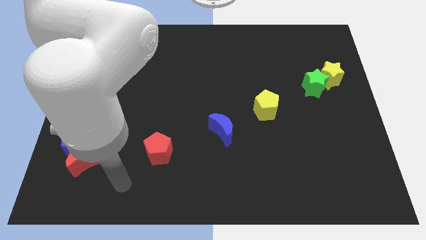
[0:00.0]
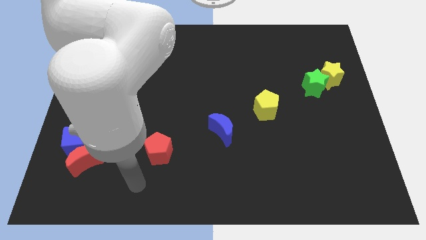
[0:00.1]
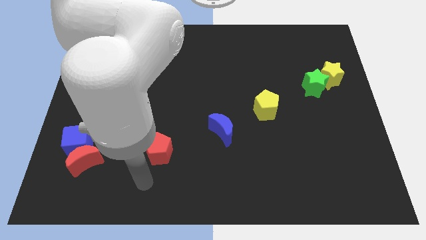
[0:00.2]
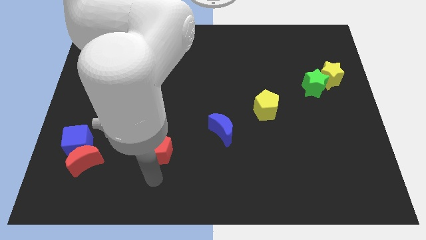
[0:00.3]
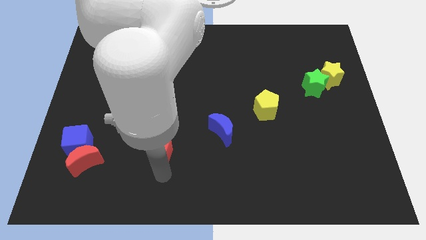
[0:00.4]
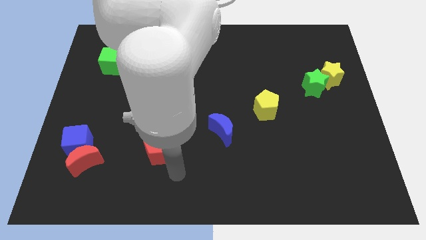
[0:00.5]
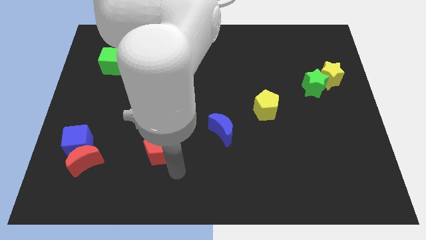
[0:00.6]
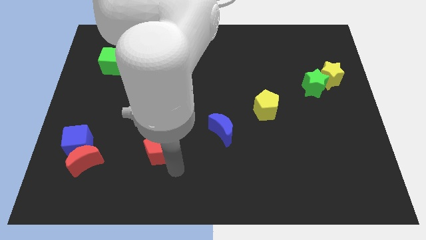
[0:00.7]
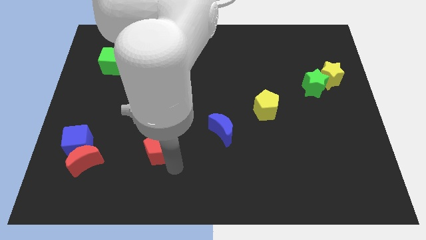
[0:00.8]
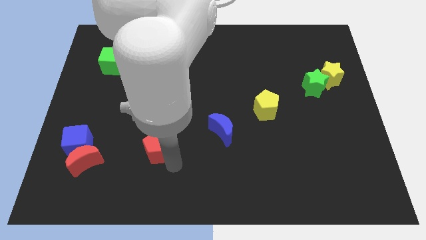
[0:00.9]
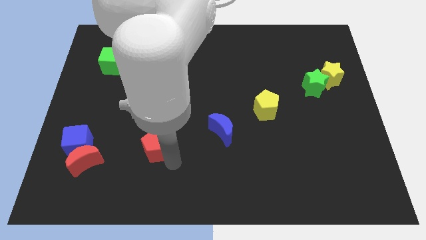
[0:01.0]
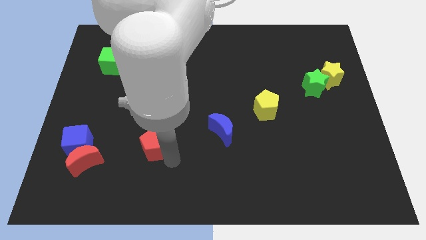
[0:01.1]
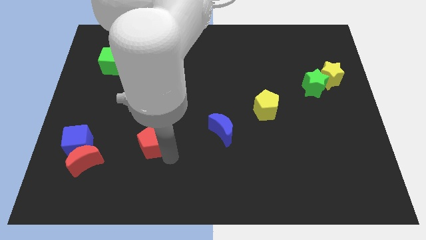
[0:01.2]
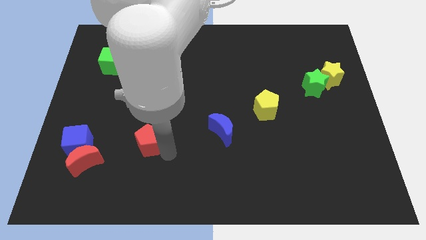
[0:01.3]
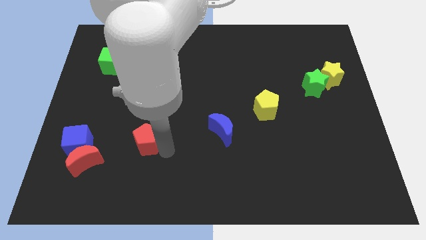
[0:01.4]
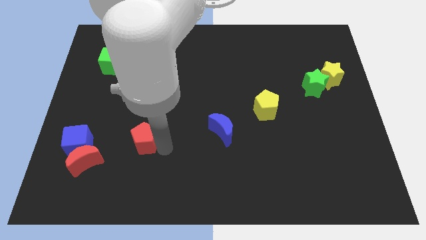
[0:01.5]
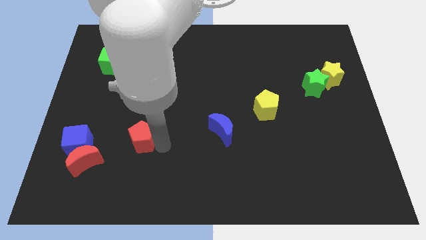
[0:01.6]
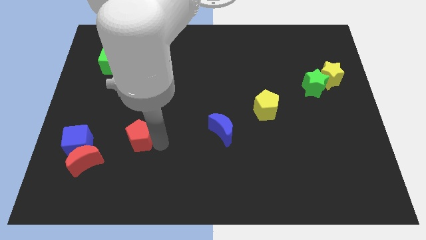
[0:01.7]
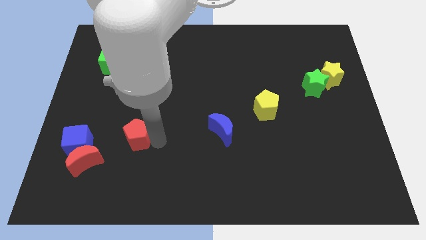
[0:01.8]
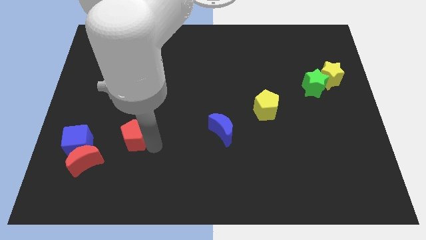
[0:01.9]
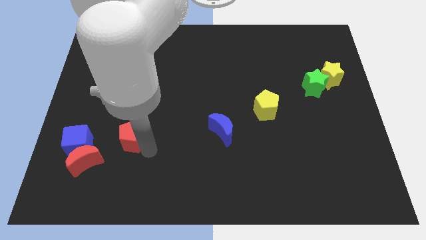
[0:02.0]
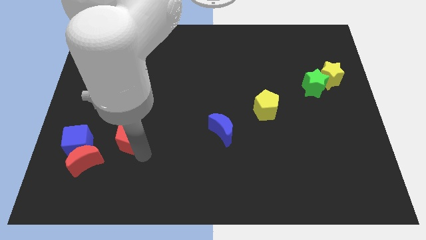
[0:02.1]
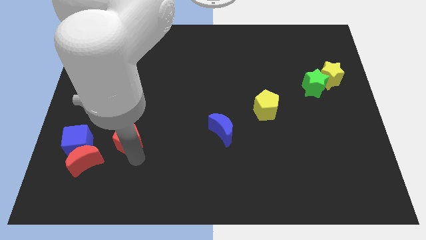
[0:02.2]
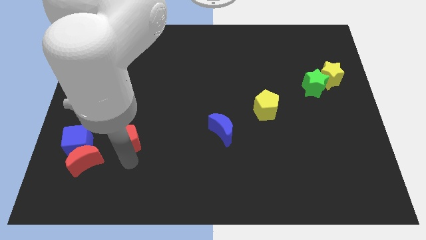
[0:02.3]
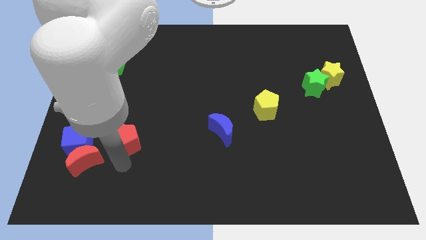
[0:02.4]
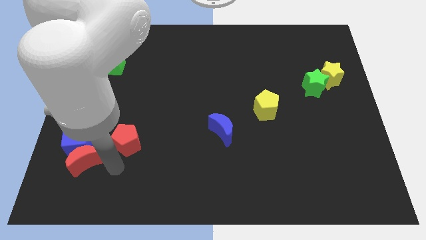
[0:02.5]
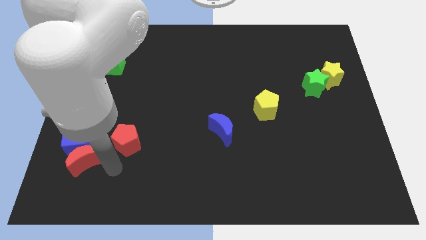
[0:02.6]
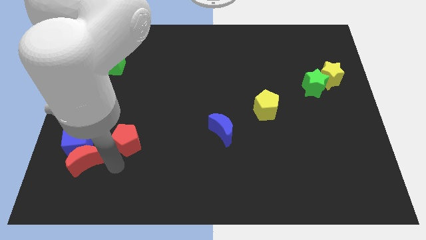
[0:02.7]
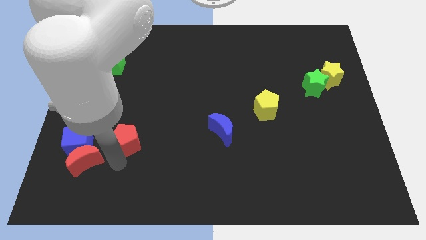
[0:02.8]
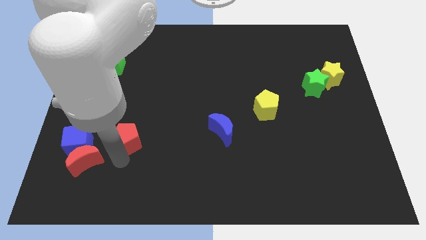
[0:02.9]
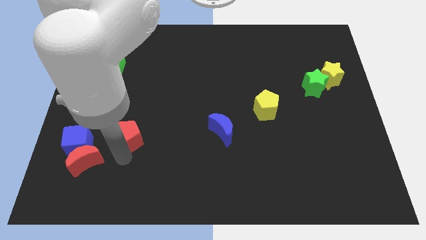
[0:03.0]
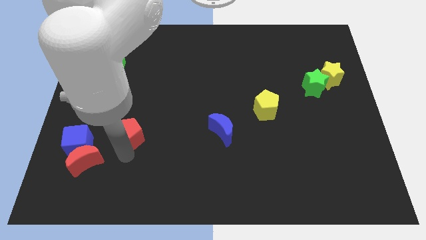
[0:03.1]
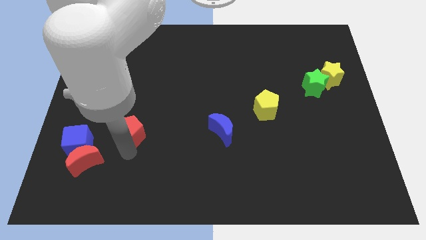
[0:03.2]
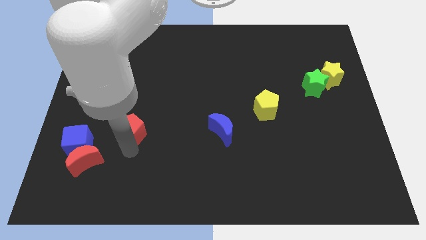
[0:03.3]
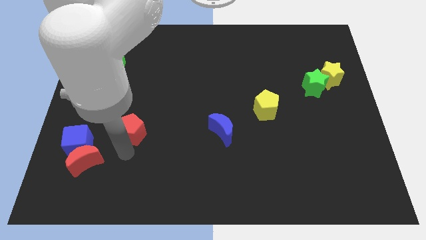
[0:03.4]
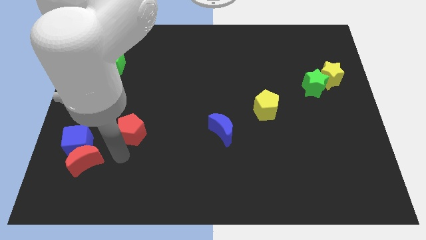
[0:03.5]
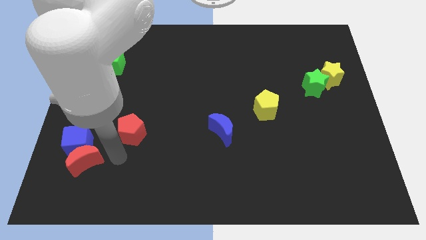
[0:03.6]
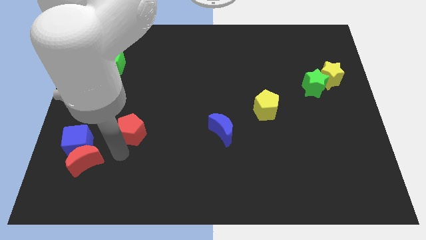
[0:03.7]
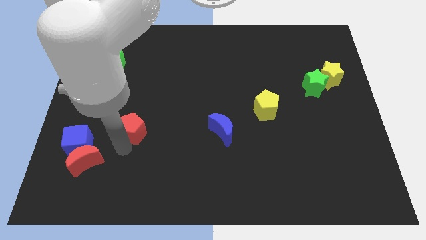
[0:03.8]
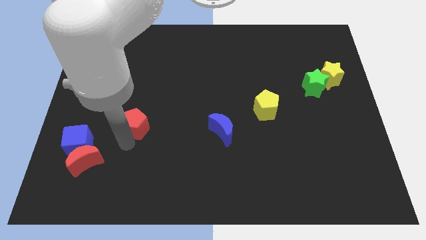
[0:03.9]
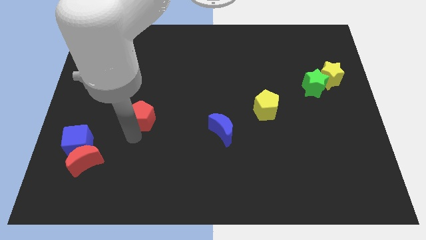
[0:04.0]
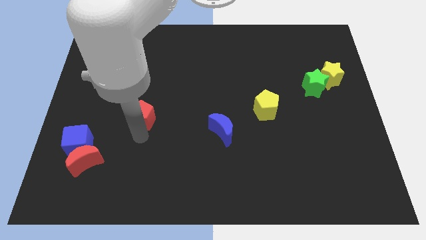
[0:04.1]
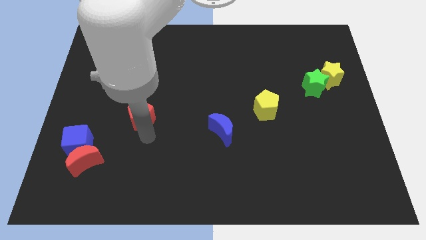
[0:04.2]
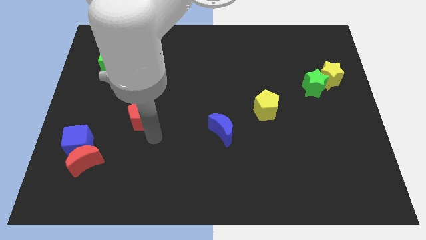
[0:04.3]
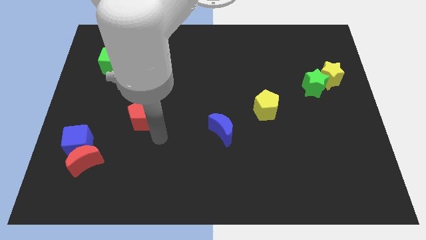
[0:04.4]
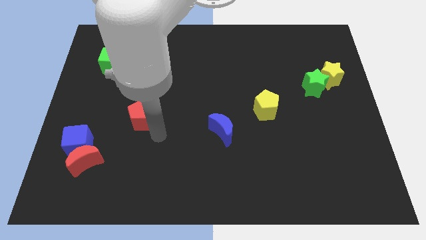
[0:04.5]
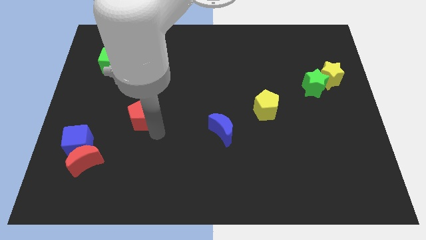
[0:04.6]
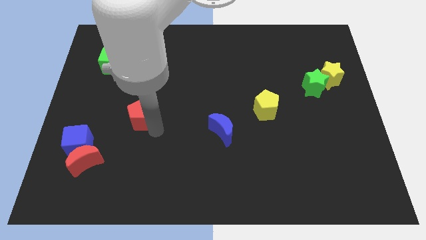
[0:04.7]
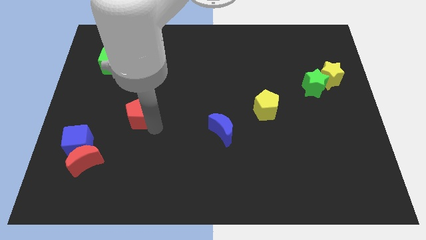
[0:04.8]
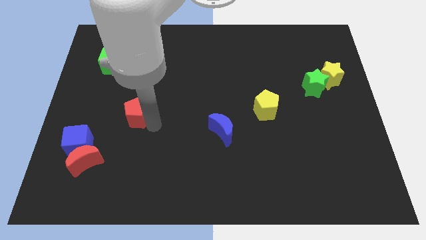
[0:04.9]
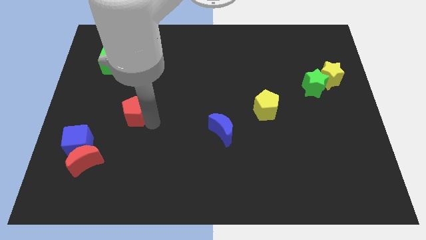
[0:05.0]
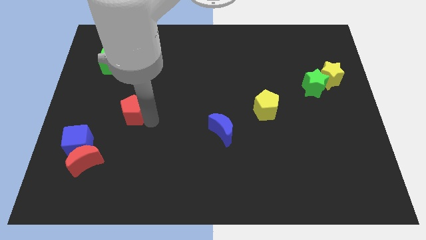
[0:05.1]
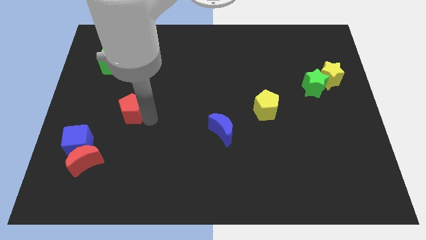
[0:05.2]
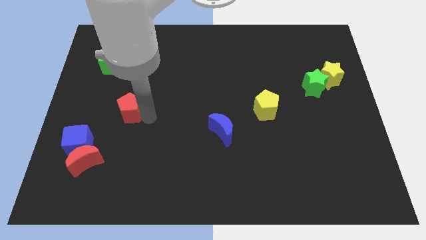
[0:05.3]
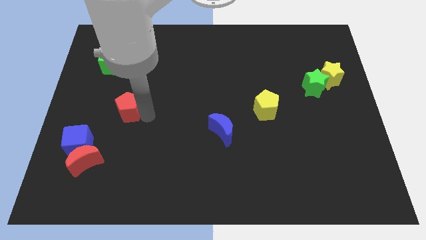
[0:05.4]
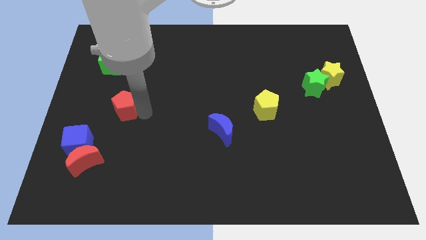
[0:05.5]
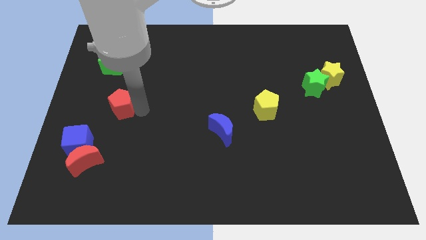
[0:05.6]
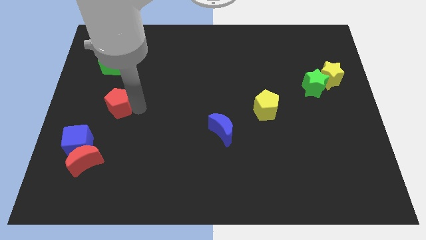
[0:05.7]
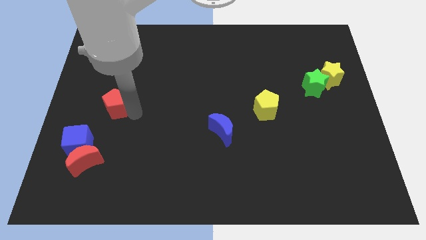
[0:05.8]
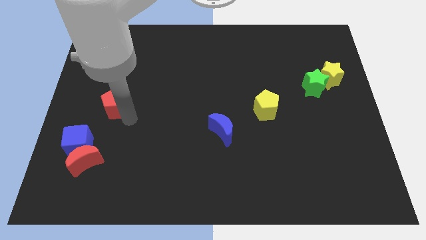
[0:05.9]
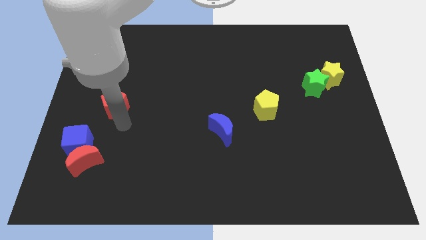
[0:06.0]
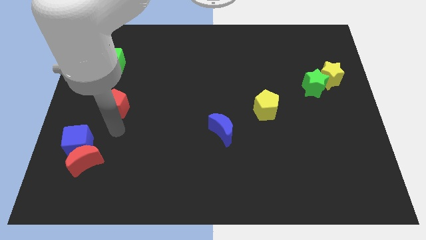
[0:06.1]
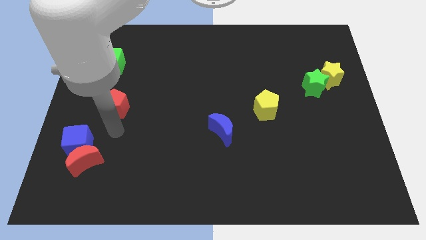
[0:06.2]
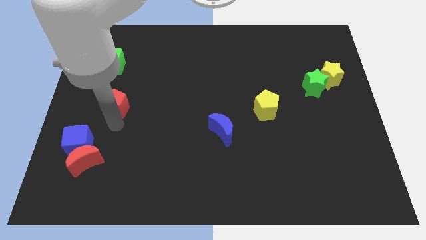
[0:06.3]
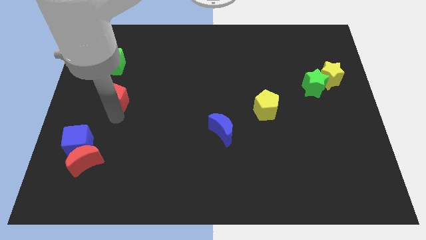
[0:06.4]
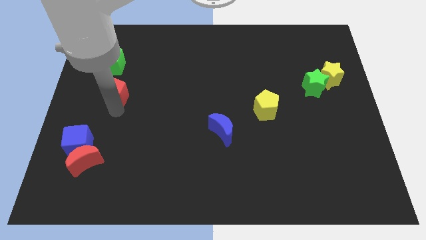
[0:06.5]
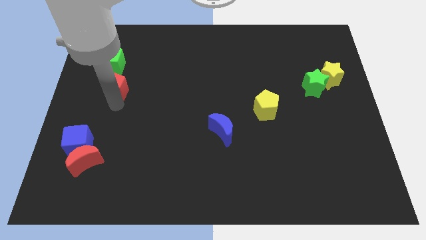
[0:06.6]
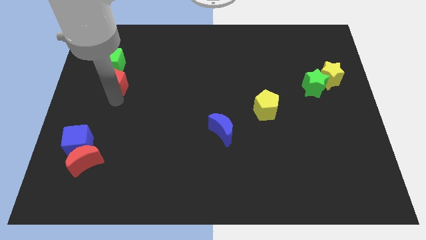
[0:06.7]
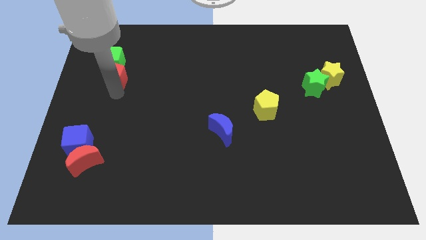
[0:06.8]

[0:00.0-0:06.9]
slide the red pentagon to the green cube
